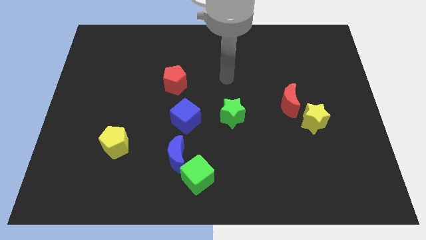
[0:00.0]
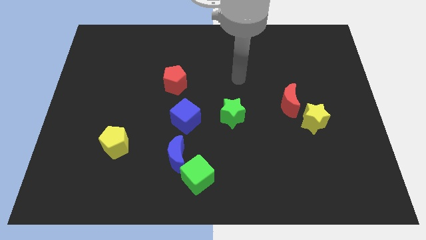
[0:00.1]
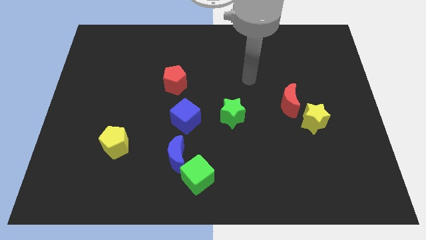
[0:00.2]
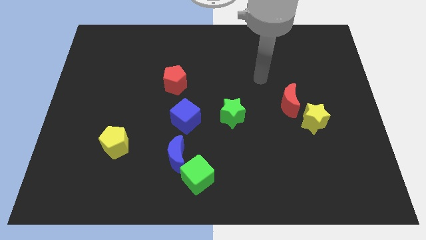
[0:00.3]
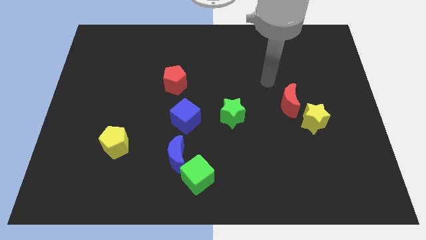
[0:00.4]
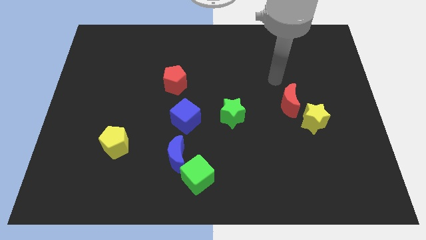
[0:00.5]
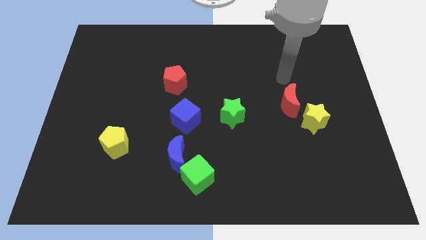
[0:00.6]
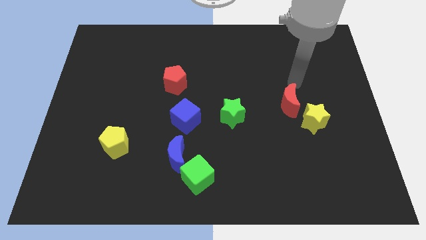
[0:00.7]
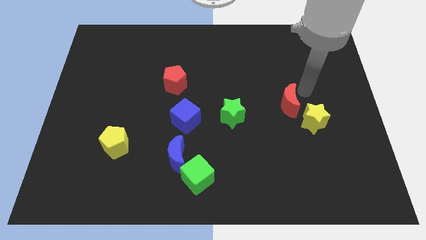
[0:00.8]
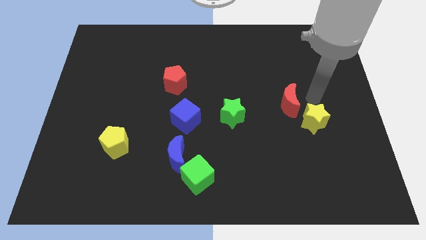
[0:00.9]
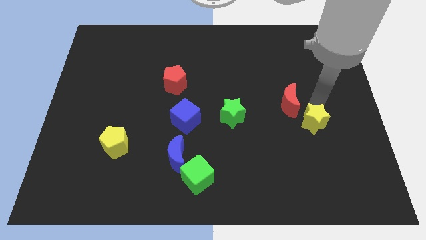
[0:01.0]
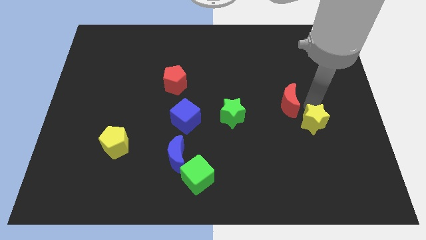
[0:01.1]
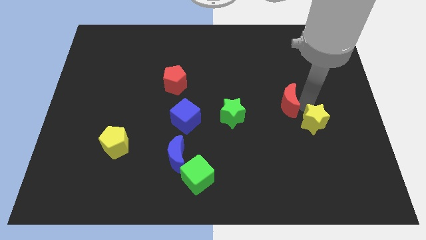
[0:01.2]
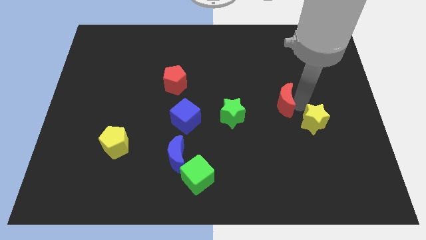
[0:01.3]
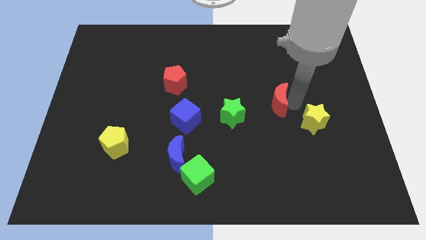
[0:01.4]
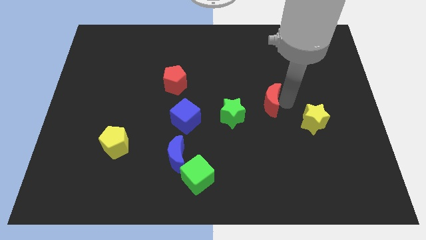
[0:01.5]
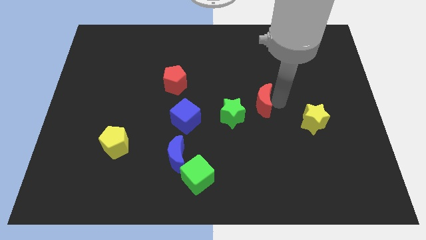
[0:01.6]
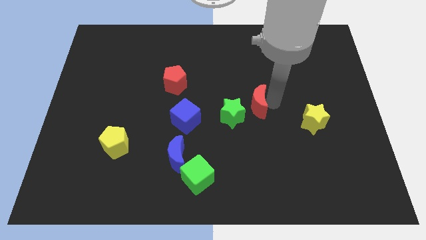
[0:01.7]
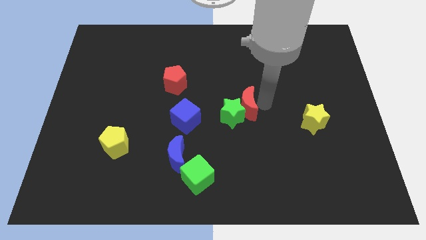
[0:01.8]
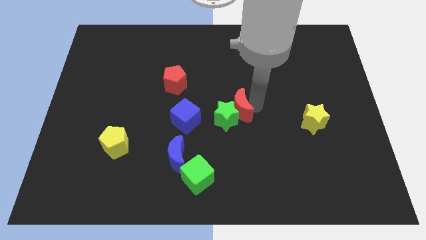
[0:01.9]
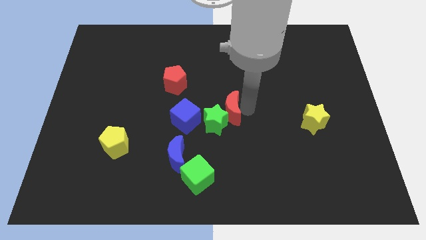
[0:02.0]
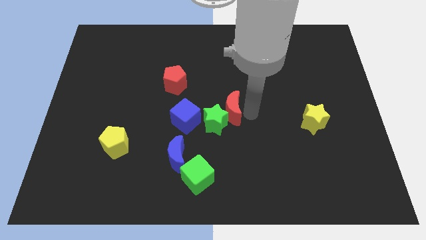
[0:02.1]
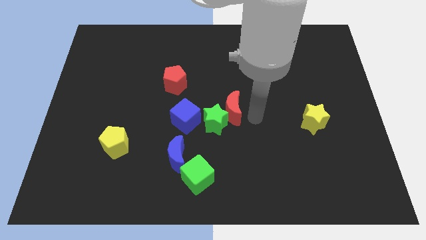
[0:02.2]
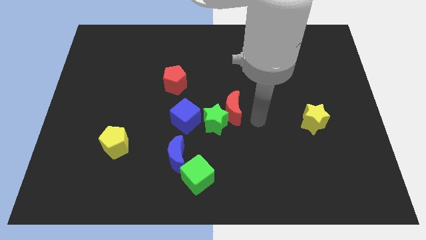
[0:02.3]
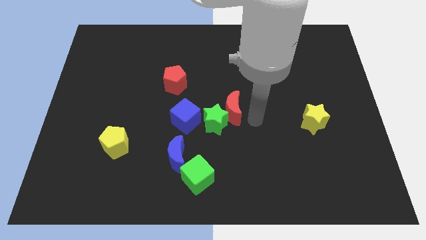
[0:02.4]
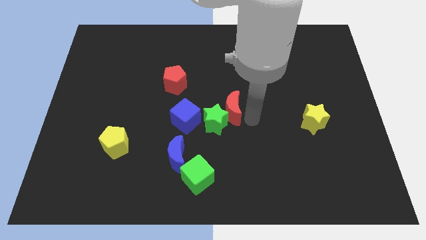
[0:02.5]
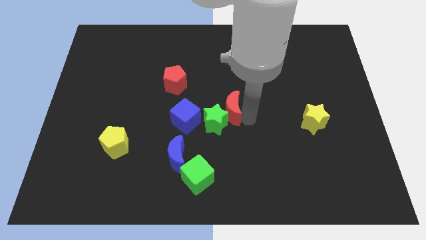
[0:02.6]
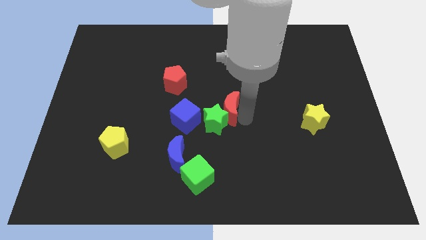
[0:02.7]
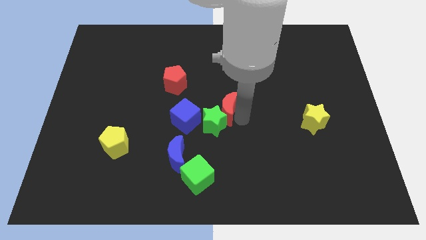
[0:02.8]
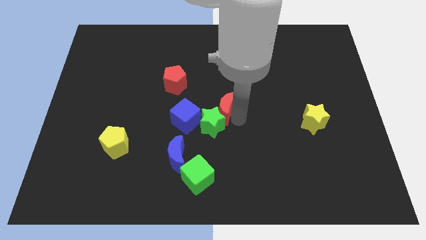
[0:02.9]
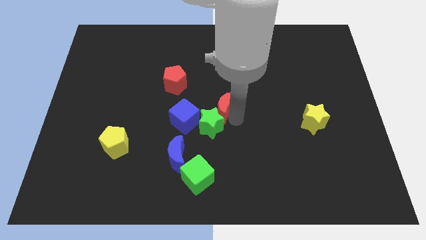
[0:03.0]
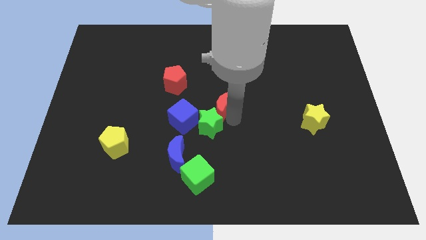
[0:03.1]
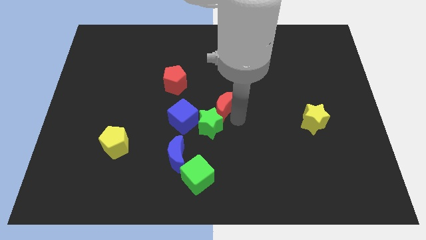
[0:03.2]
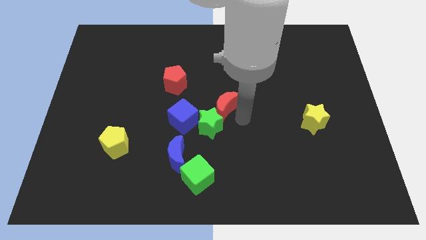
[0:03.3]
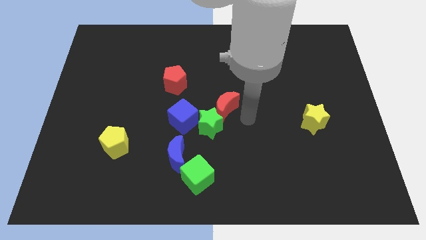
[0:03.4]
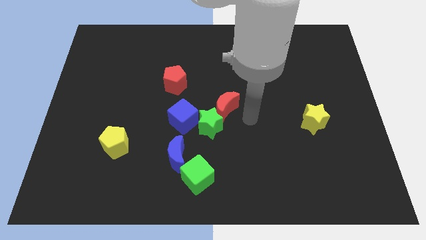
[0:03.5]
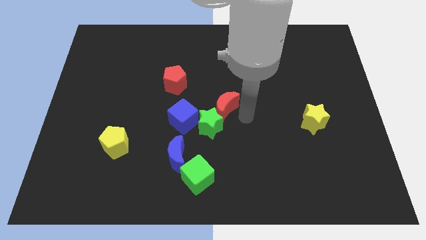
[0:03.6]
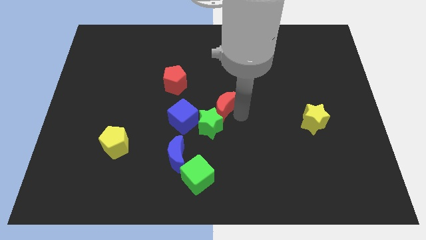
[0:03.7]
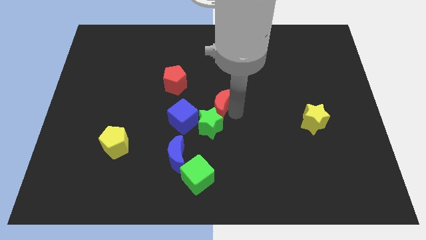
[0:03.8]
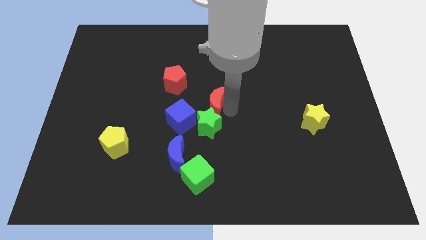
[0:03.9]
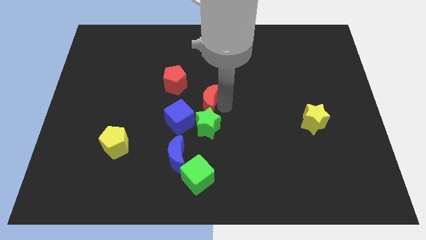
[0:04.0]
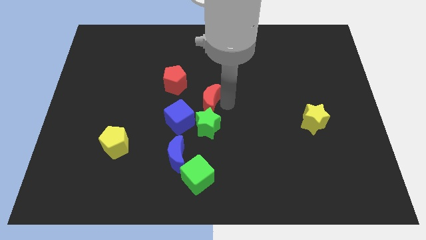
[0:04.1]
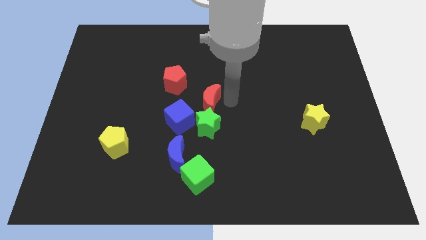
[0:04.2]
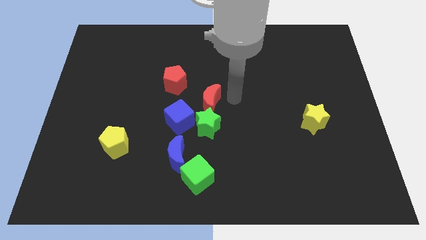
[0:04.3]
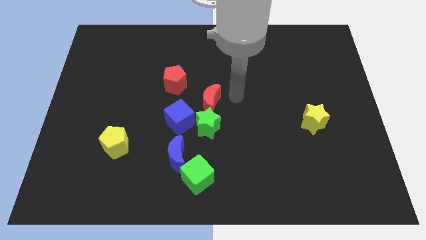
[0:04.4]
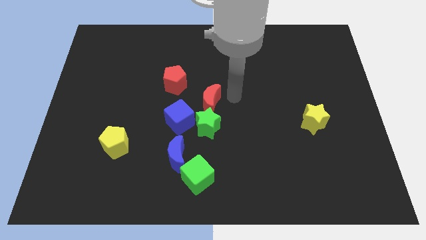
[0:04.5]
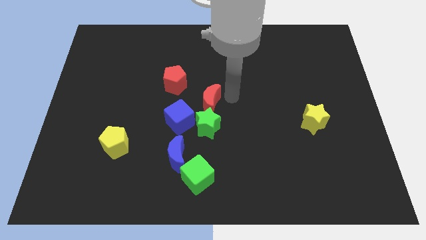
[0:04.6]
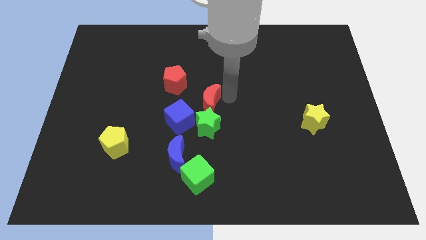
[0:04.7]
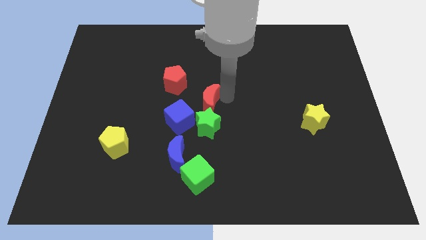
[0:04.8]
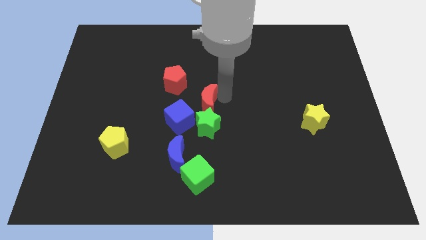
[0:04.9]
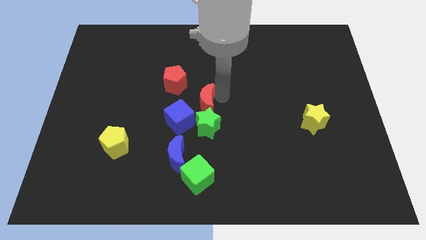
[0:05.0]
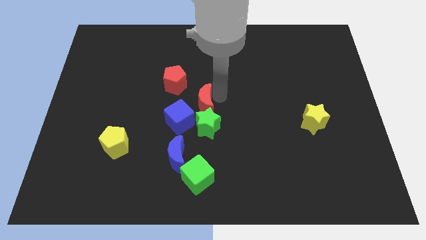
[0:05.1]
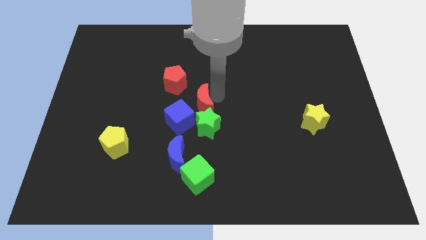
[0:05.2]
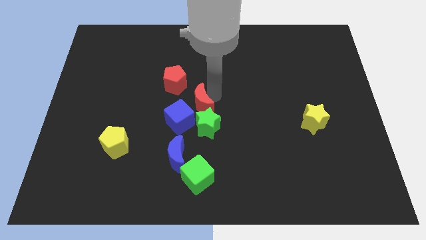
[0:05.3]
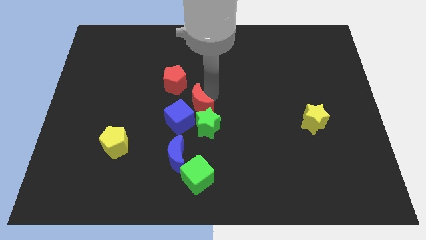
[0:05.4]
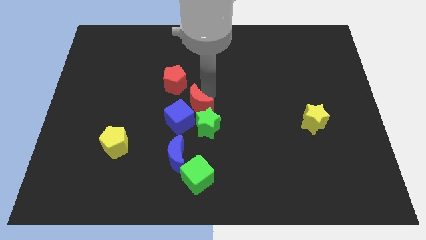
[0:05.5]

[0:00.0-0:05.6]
move the red moon to the blue cube

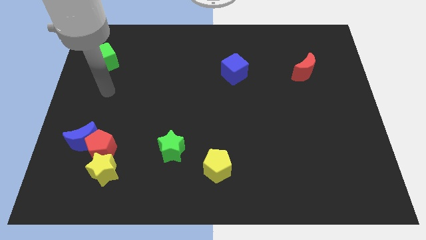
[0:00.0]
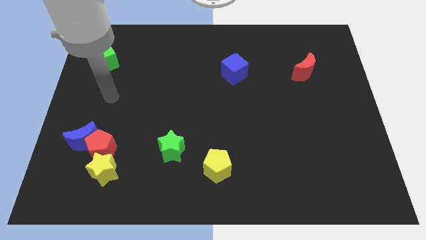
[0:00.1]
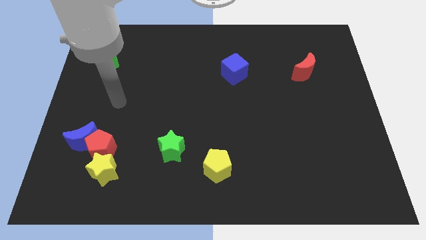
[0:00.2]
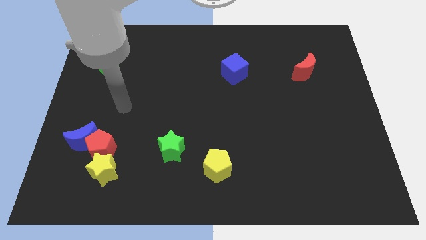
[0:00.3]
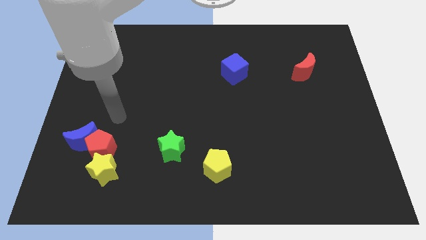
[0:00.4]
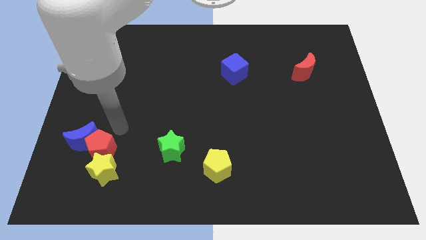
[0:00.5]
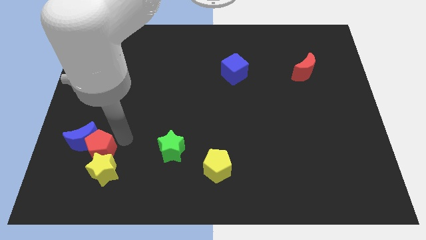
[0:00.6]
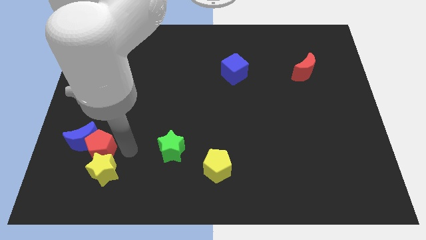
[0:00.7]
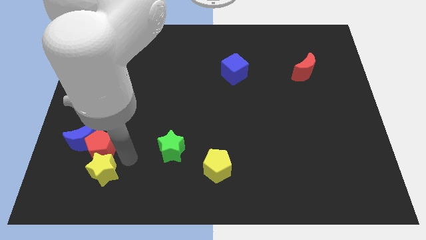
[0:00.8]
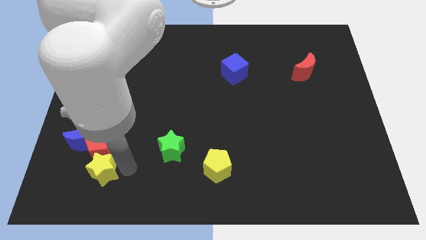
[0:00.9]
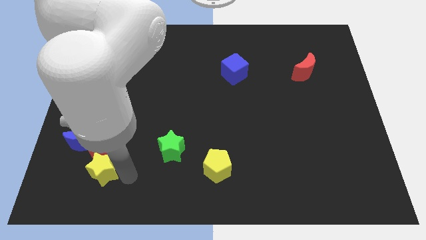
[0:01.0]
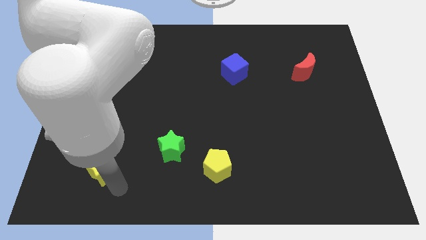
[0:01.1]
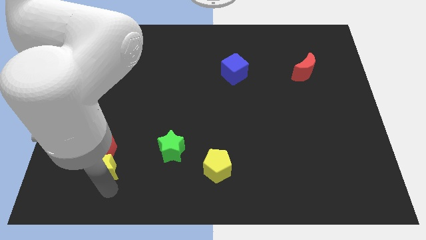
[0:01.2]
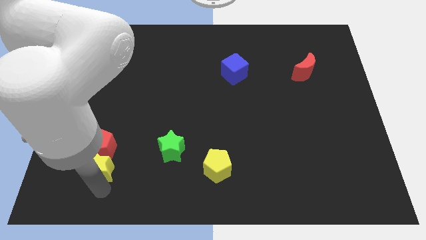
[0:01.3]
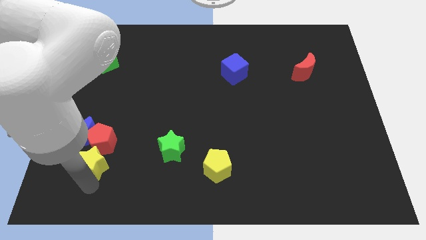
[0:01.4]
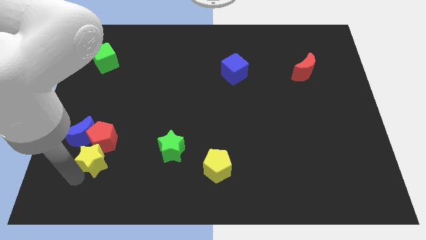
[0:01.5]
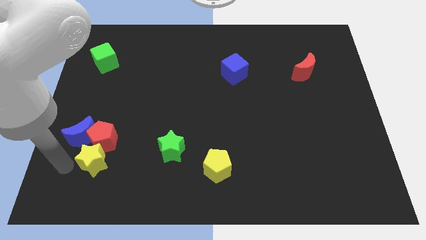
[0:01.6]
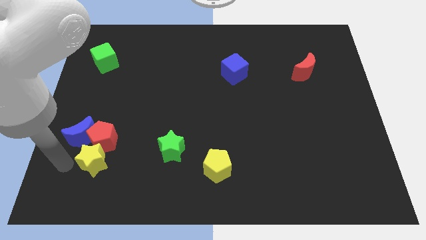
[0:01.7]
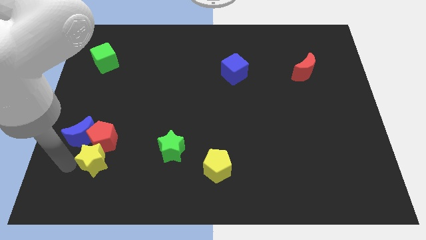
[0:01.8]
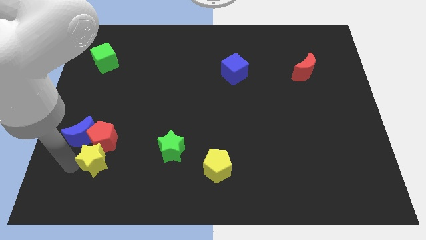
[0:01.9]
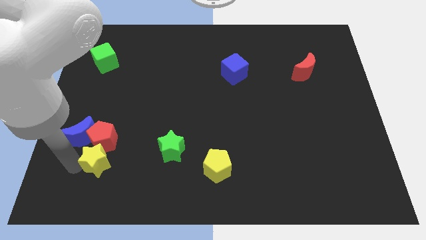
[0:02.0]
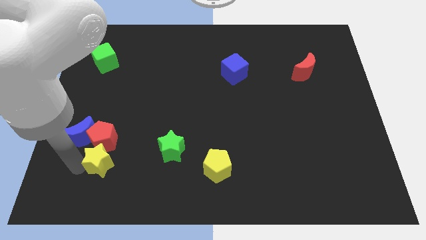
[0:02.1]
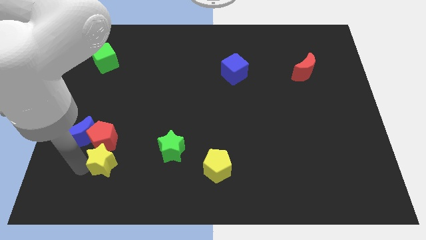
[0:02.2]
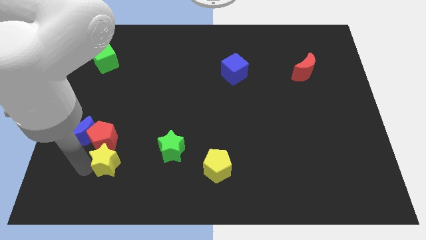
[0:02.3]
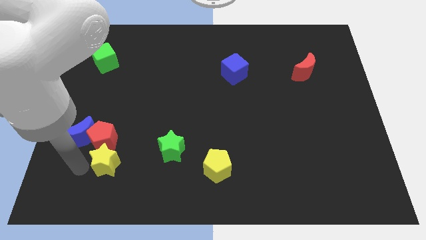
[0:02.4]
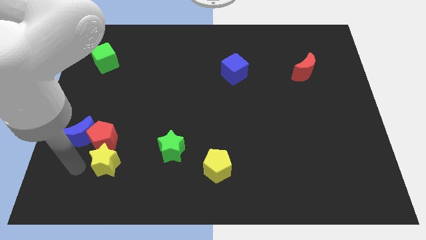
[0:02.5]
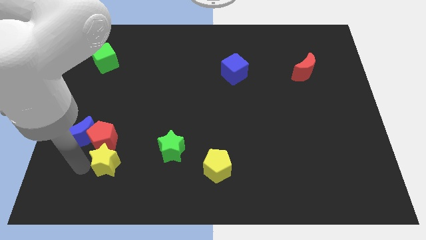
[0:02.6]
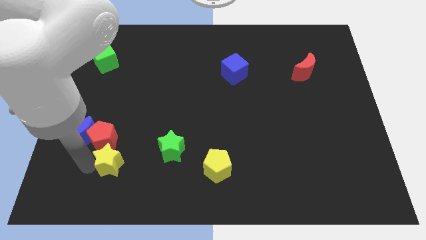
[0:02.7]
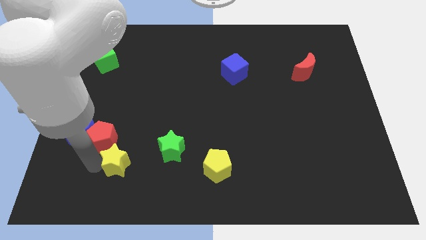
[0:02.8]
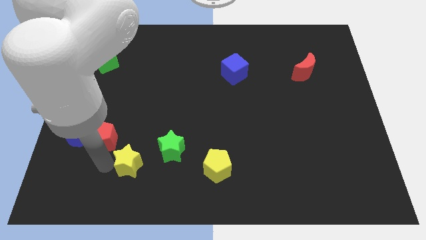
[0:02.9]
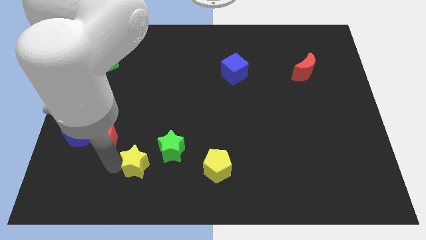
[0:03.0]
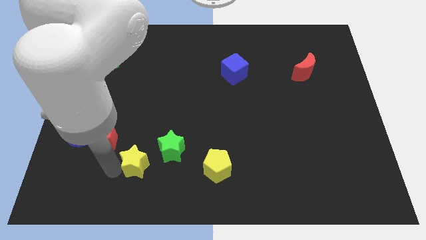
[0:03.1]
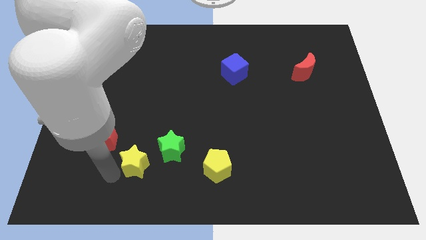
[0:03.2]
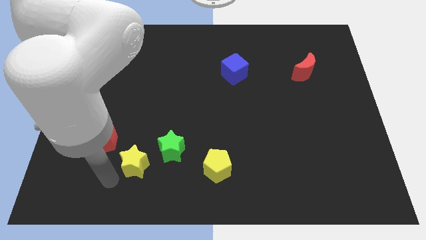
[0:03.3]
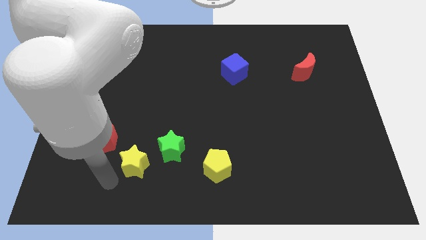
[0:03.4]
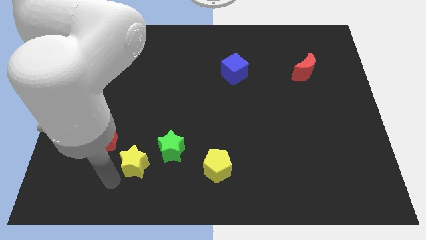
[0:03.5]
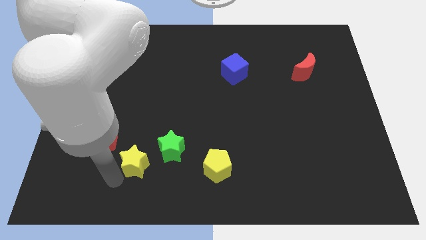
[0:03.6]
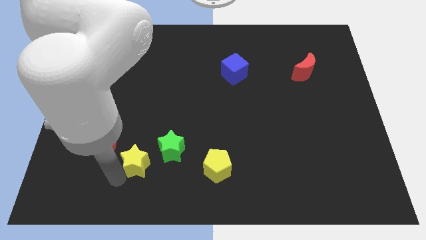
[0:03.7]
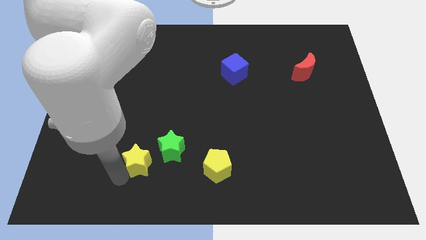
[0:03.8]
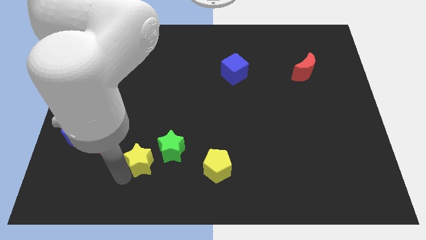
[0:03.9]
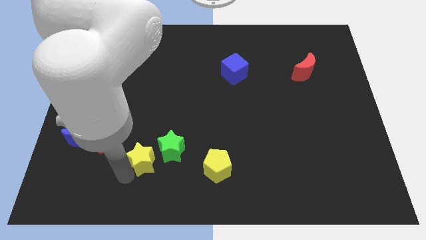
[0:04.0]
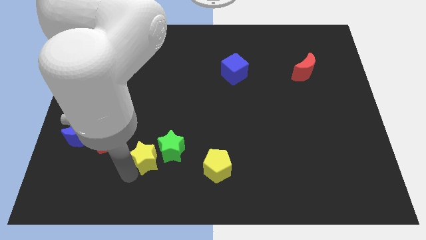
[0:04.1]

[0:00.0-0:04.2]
move the yellow star close to the green star
